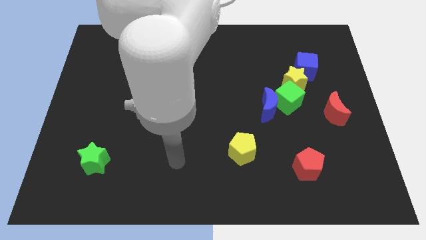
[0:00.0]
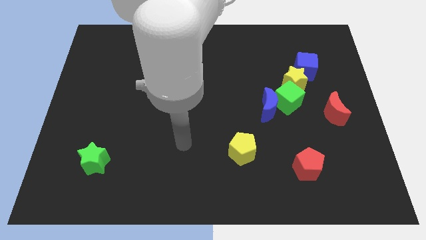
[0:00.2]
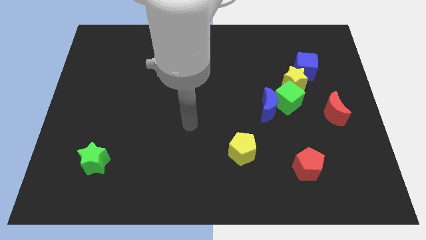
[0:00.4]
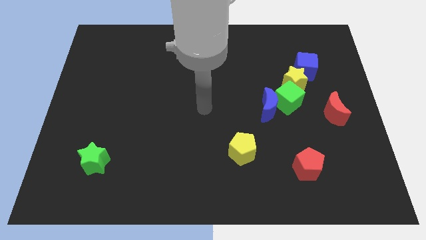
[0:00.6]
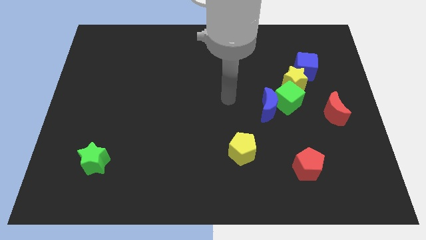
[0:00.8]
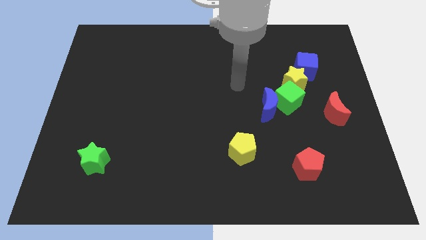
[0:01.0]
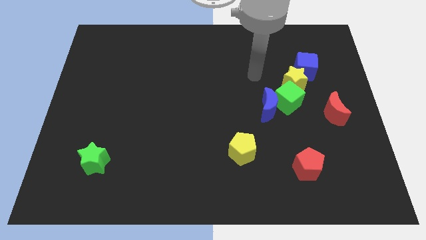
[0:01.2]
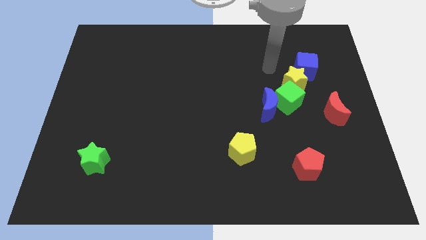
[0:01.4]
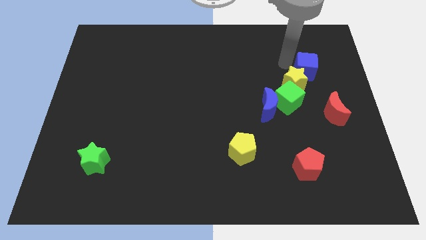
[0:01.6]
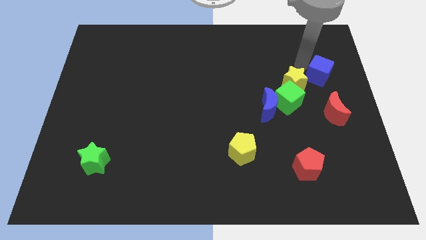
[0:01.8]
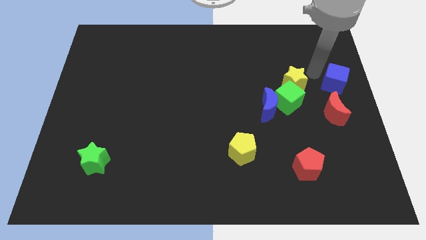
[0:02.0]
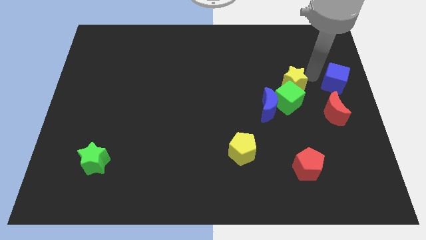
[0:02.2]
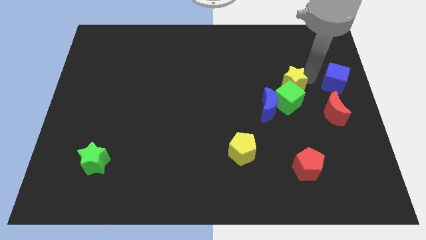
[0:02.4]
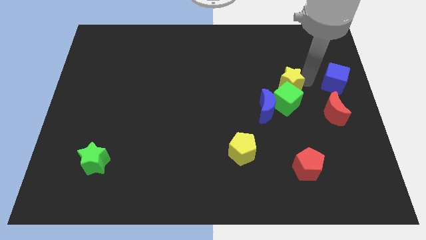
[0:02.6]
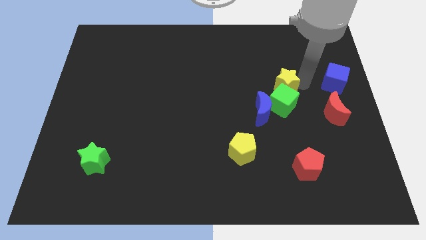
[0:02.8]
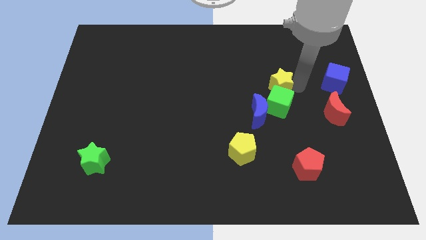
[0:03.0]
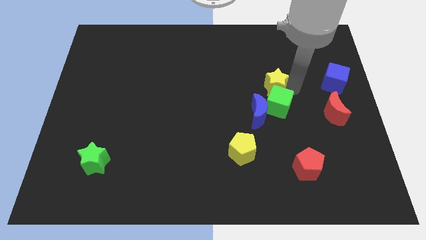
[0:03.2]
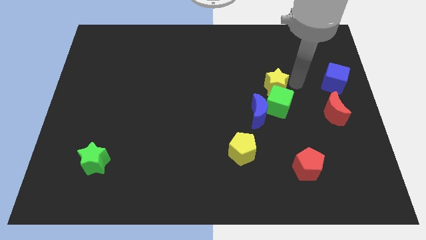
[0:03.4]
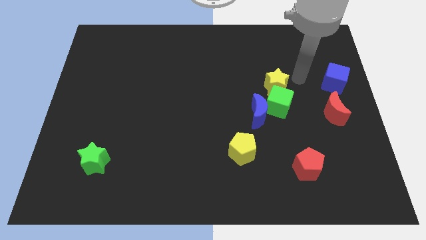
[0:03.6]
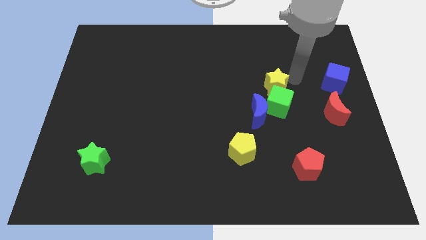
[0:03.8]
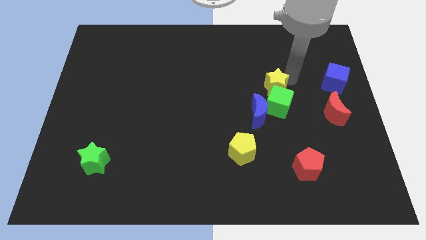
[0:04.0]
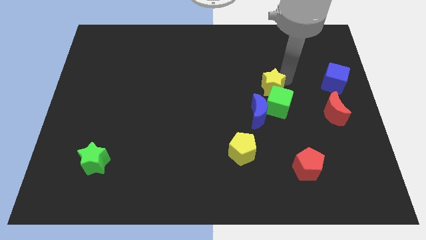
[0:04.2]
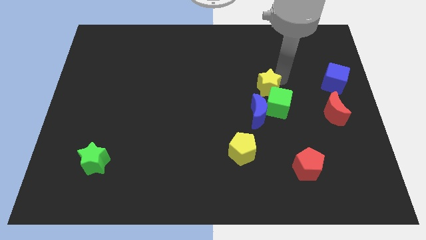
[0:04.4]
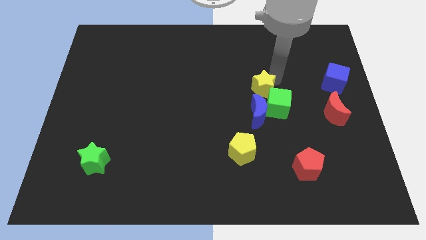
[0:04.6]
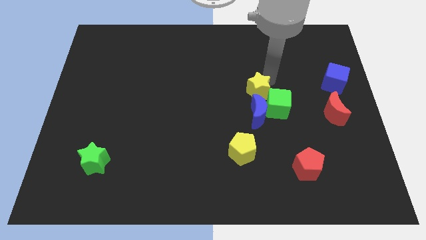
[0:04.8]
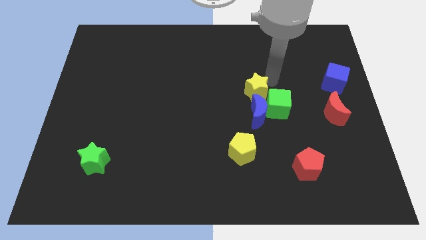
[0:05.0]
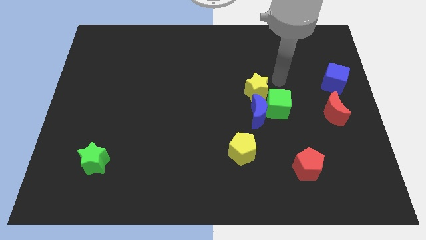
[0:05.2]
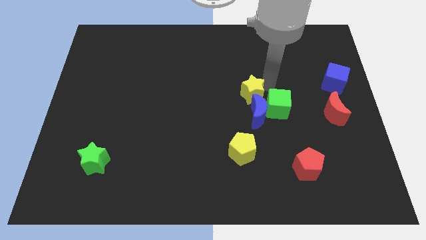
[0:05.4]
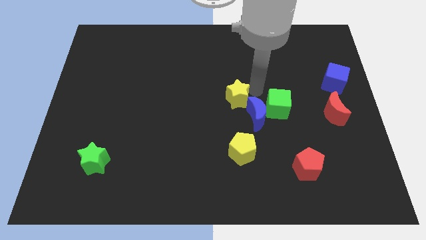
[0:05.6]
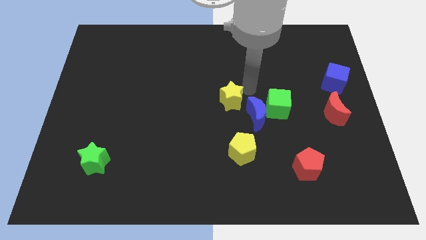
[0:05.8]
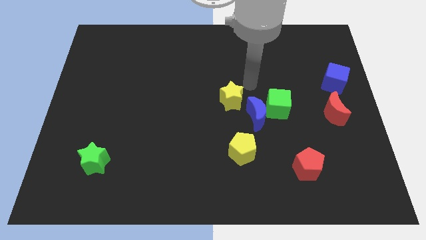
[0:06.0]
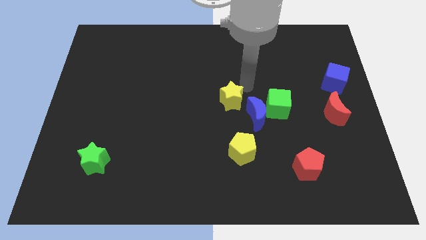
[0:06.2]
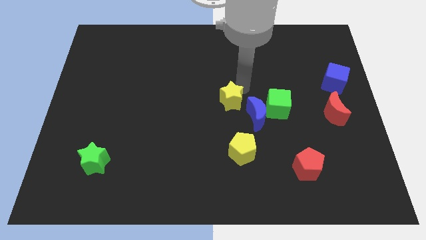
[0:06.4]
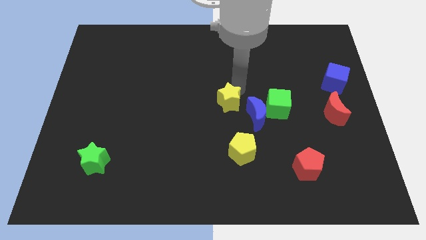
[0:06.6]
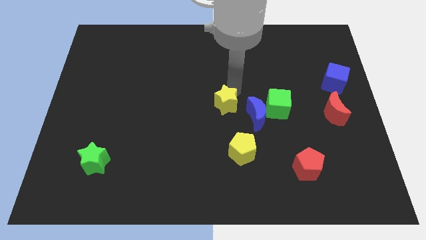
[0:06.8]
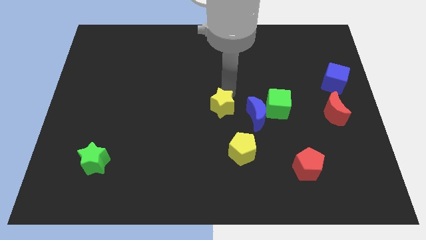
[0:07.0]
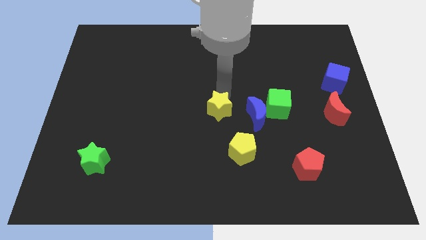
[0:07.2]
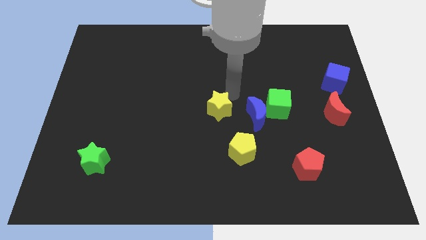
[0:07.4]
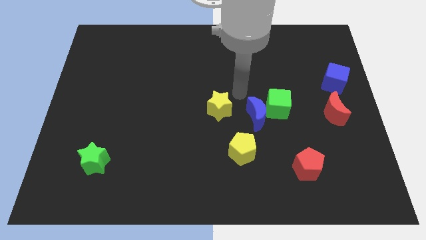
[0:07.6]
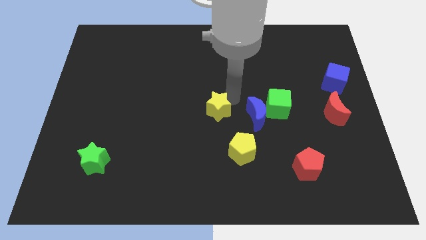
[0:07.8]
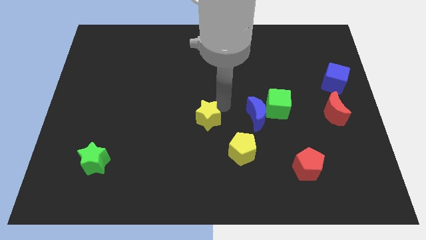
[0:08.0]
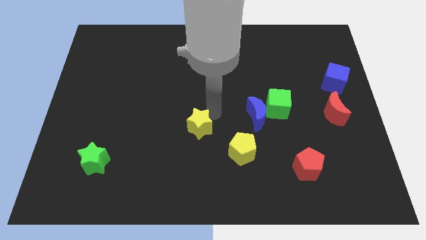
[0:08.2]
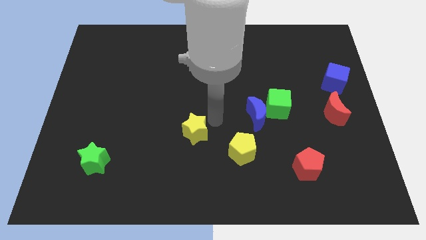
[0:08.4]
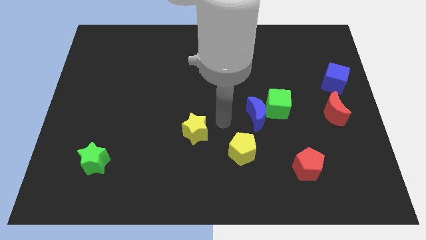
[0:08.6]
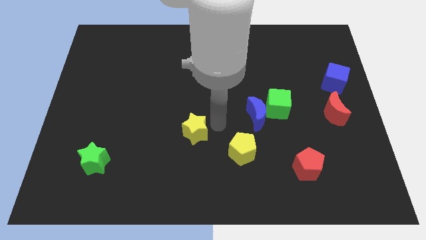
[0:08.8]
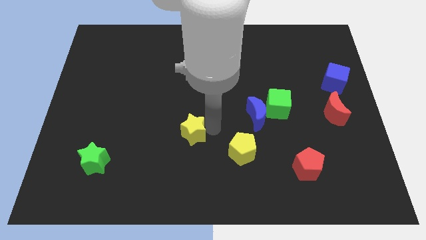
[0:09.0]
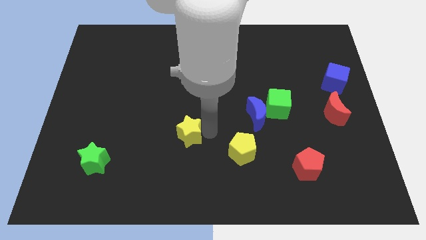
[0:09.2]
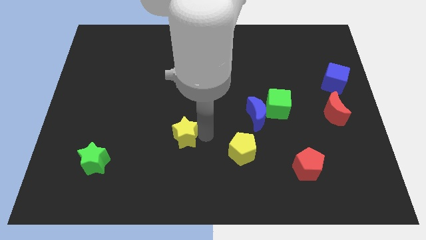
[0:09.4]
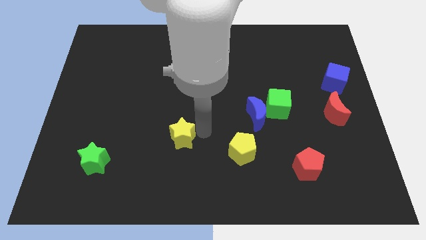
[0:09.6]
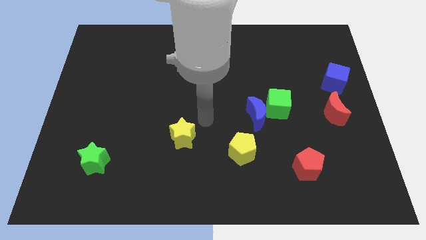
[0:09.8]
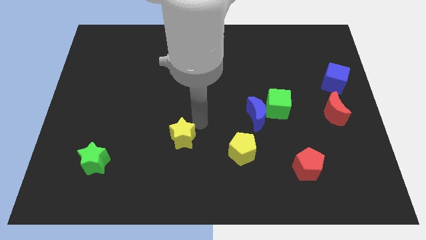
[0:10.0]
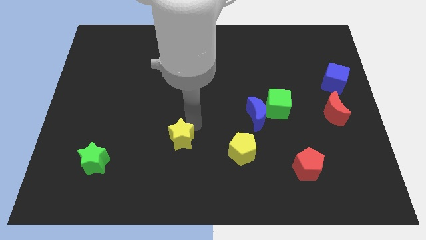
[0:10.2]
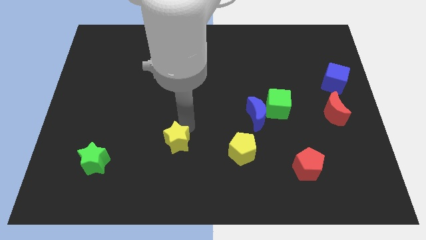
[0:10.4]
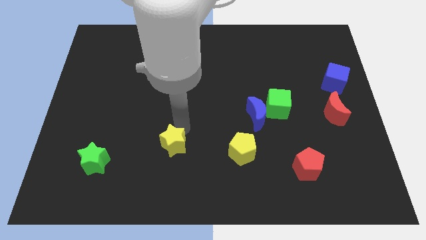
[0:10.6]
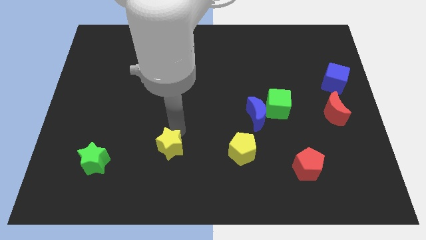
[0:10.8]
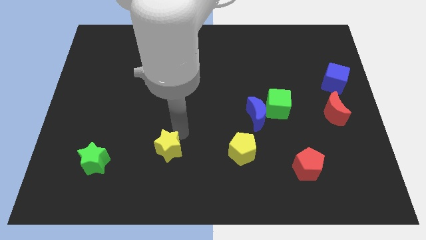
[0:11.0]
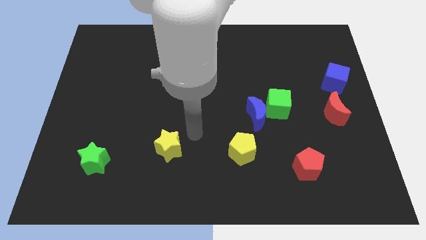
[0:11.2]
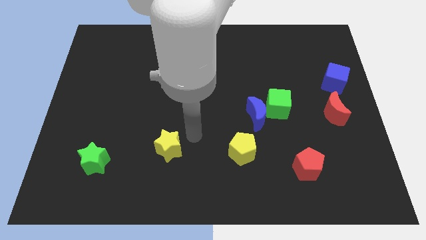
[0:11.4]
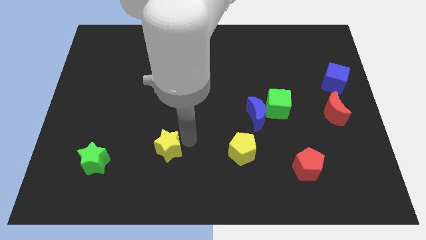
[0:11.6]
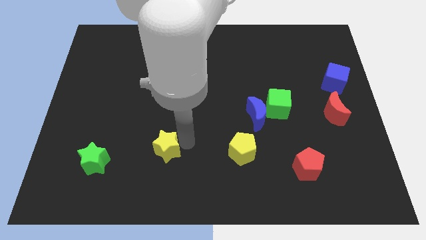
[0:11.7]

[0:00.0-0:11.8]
slide the yellow star right of the green star
